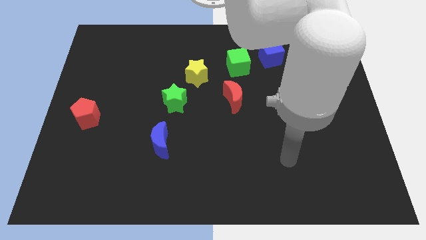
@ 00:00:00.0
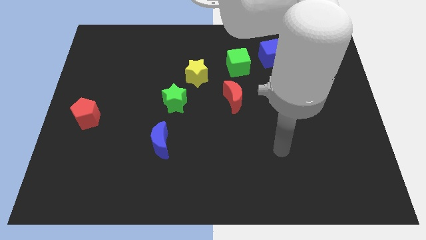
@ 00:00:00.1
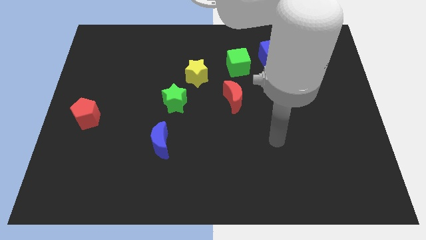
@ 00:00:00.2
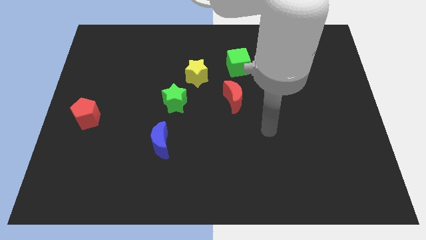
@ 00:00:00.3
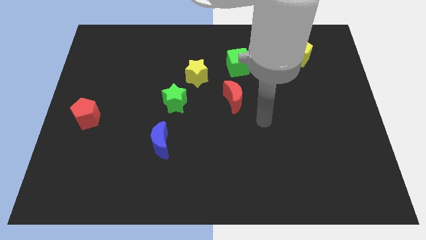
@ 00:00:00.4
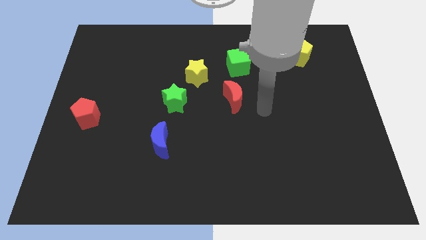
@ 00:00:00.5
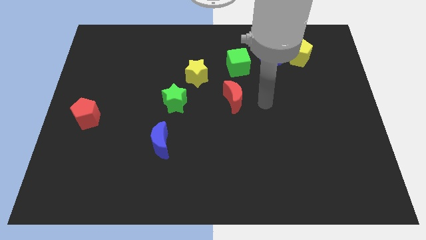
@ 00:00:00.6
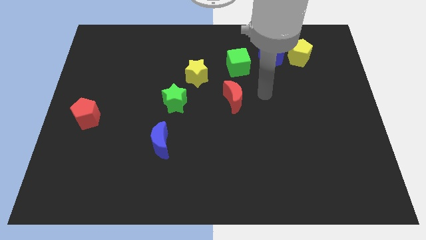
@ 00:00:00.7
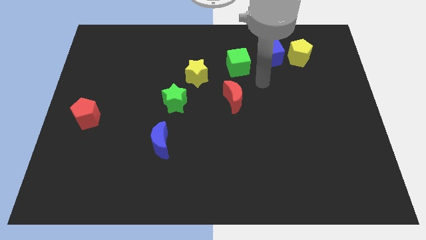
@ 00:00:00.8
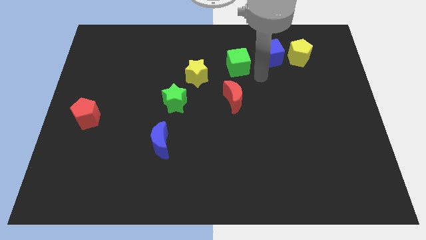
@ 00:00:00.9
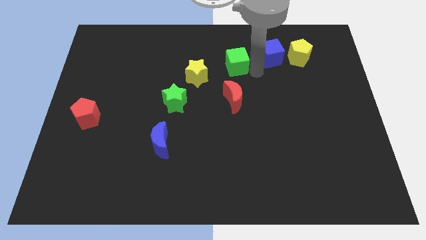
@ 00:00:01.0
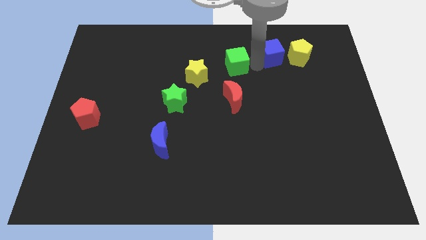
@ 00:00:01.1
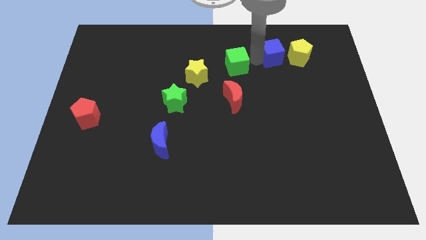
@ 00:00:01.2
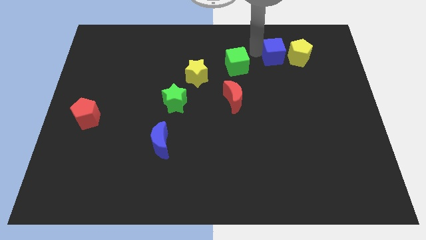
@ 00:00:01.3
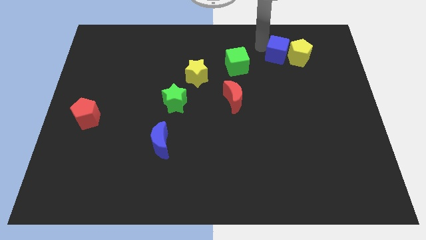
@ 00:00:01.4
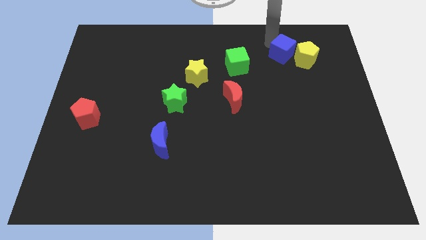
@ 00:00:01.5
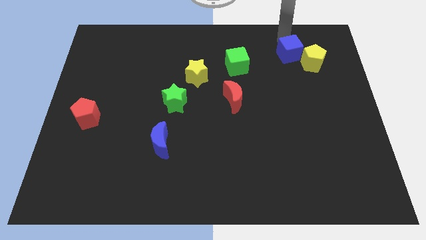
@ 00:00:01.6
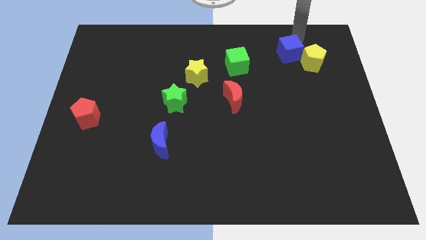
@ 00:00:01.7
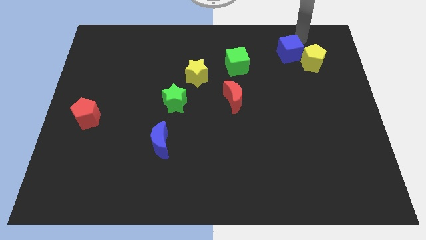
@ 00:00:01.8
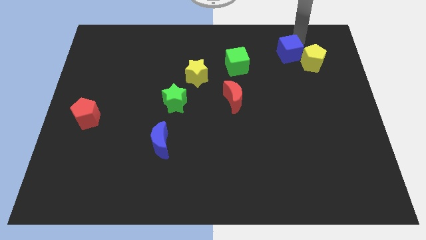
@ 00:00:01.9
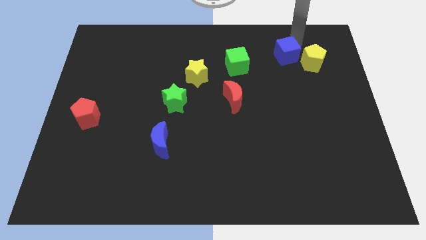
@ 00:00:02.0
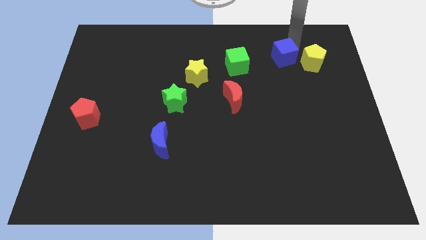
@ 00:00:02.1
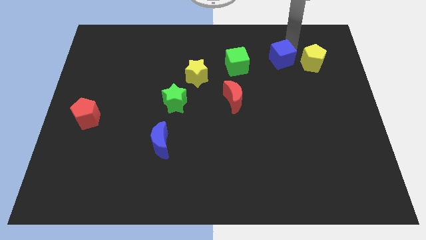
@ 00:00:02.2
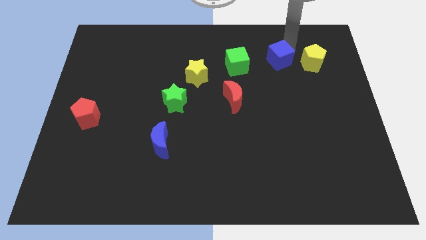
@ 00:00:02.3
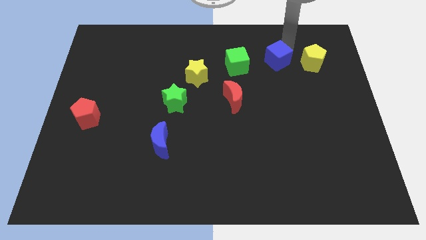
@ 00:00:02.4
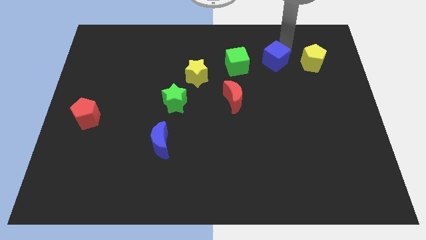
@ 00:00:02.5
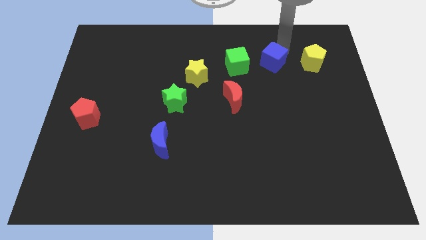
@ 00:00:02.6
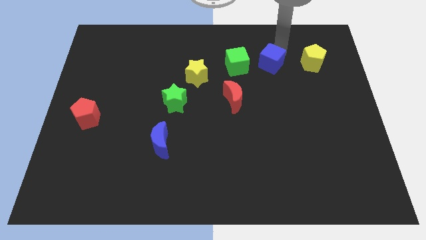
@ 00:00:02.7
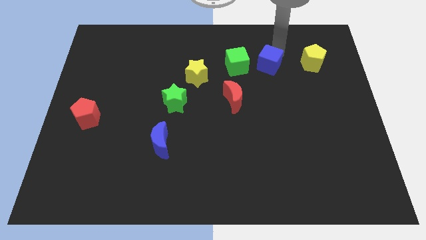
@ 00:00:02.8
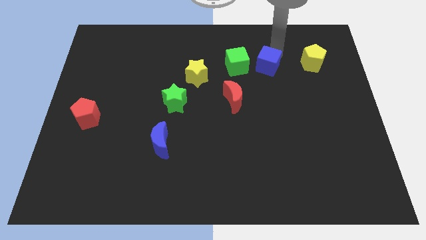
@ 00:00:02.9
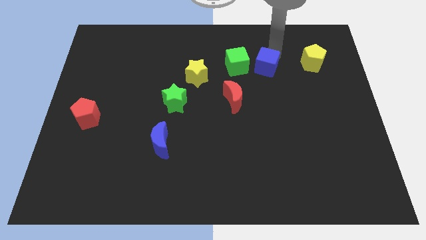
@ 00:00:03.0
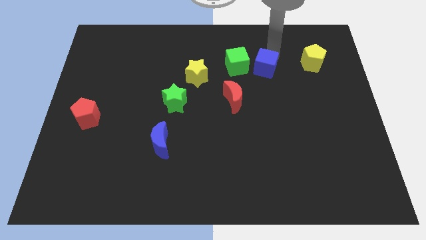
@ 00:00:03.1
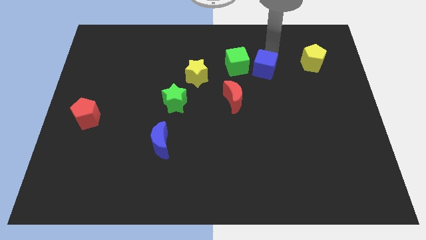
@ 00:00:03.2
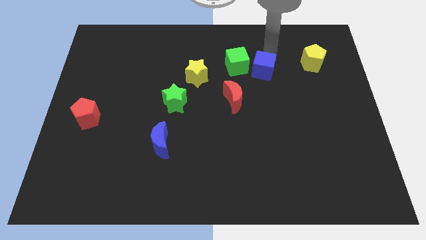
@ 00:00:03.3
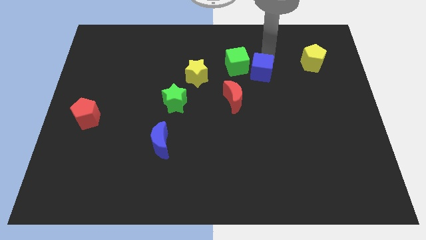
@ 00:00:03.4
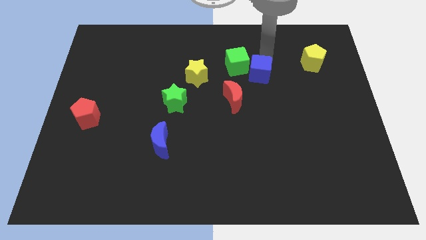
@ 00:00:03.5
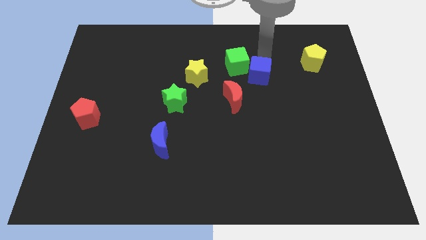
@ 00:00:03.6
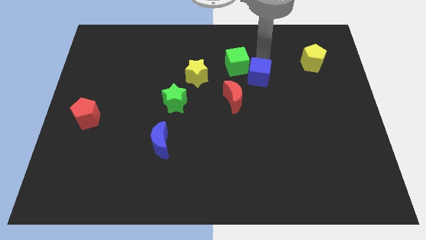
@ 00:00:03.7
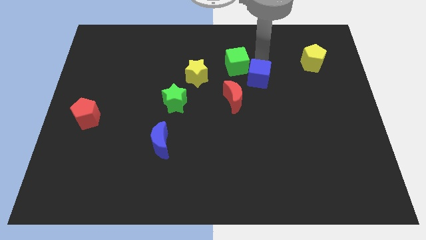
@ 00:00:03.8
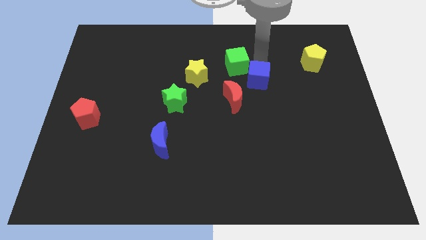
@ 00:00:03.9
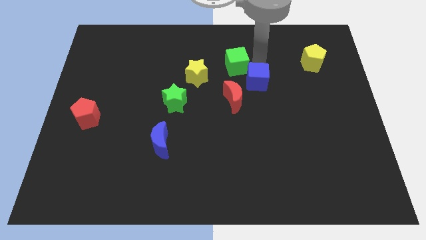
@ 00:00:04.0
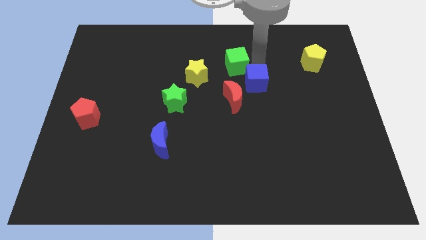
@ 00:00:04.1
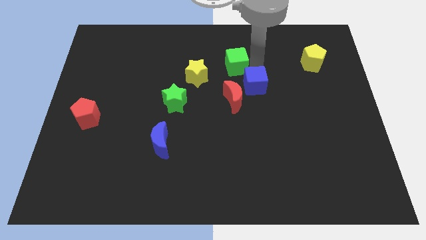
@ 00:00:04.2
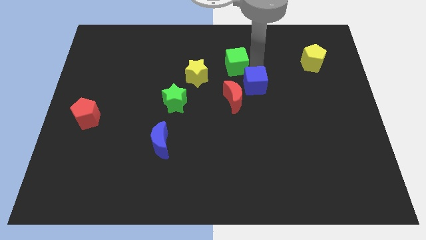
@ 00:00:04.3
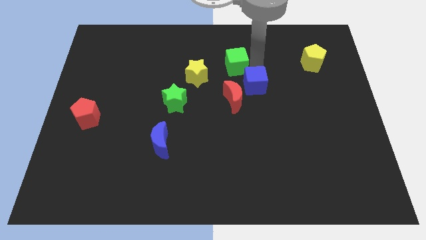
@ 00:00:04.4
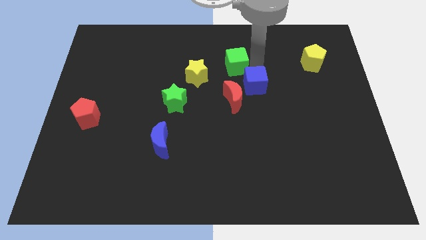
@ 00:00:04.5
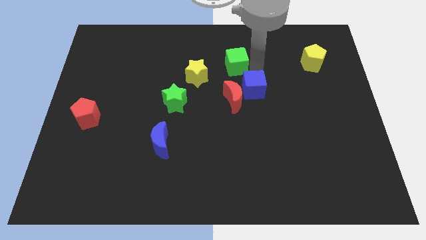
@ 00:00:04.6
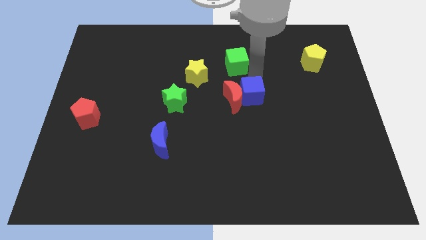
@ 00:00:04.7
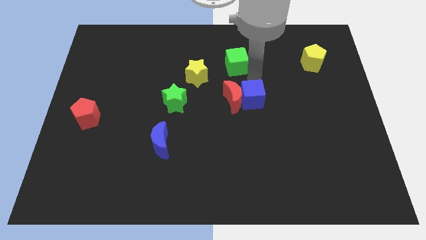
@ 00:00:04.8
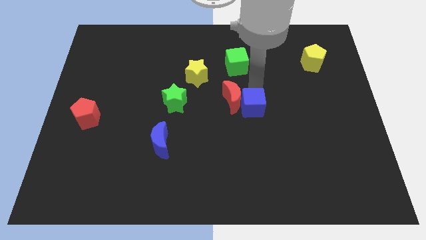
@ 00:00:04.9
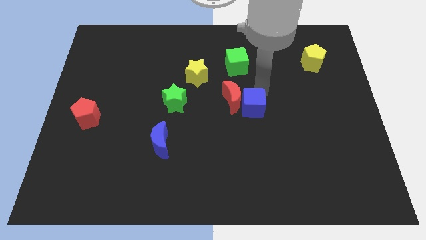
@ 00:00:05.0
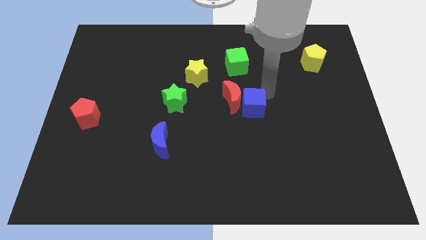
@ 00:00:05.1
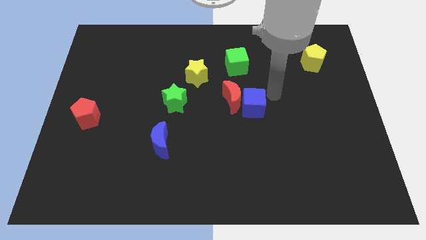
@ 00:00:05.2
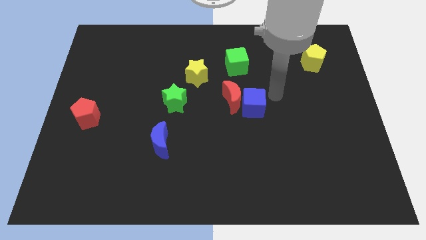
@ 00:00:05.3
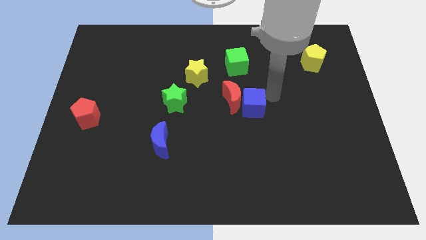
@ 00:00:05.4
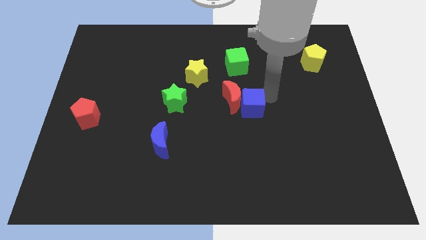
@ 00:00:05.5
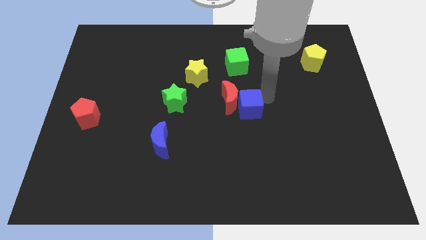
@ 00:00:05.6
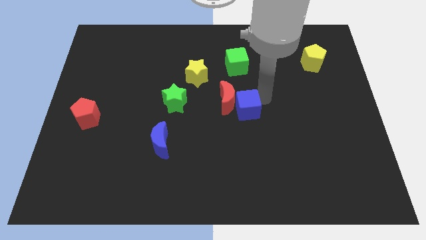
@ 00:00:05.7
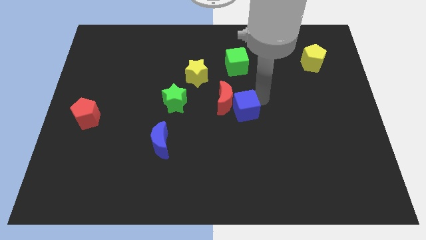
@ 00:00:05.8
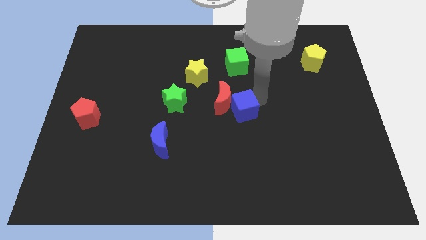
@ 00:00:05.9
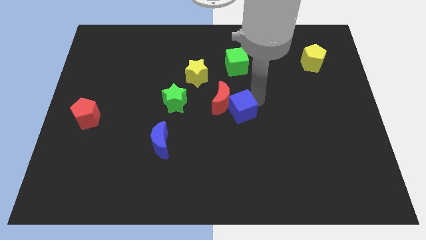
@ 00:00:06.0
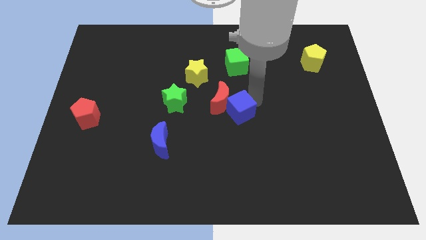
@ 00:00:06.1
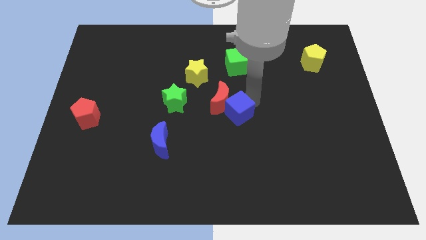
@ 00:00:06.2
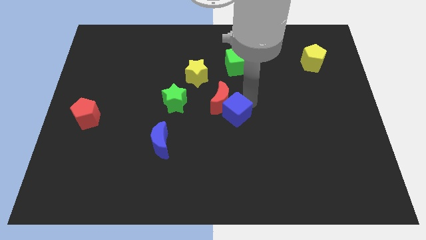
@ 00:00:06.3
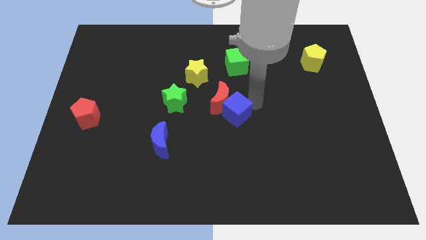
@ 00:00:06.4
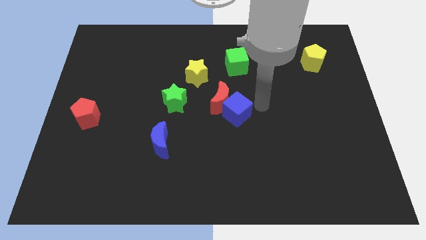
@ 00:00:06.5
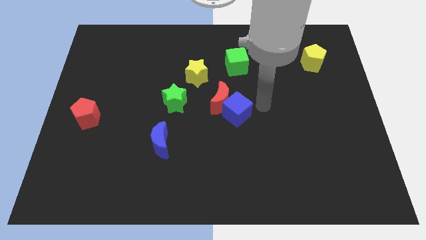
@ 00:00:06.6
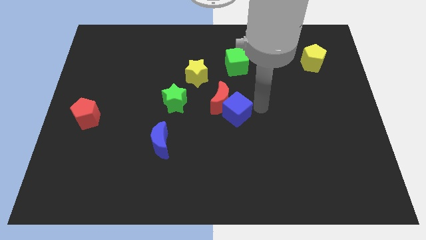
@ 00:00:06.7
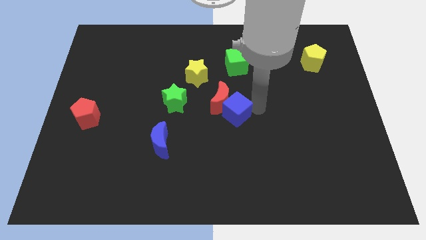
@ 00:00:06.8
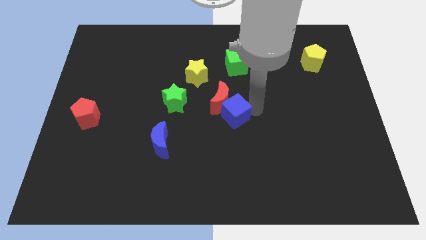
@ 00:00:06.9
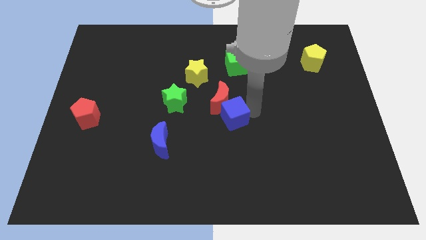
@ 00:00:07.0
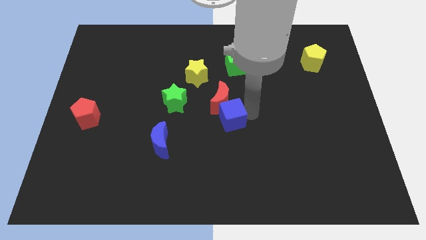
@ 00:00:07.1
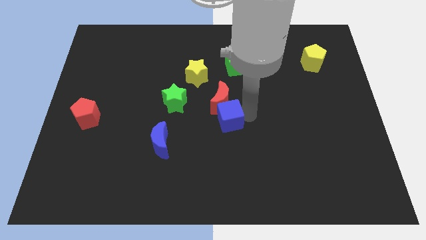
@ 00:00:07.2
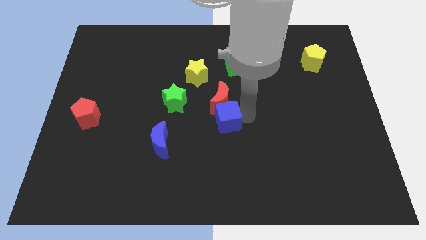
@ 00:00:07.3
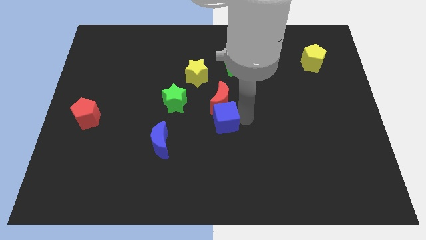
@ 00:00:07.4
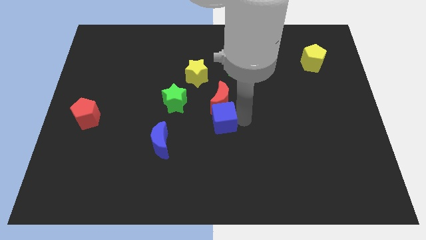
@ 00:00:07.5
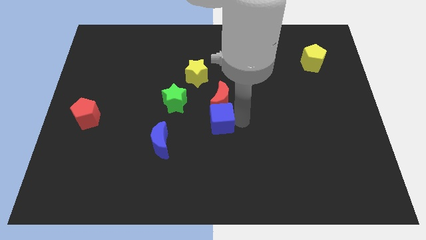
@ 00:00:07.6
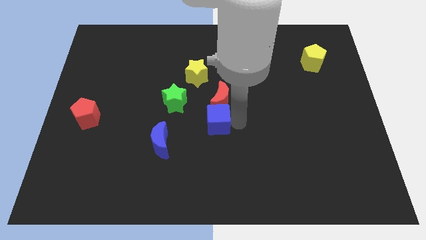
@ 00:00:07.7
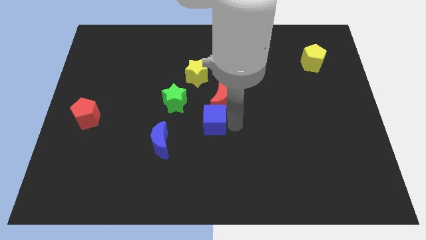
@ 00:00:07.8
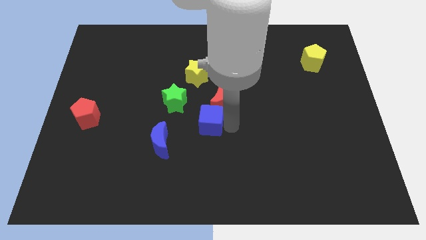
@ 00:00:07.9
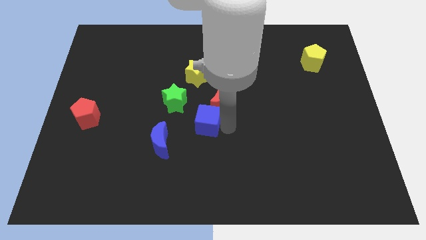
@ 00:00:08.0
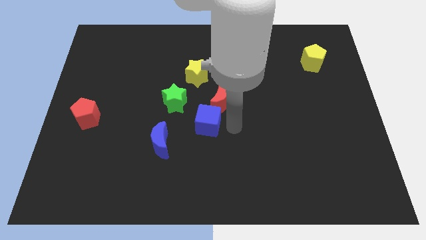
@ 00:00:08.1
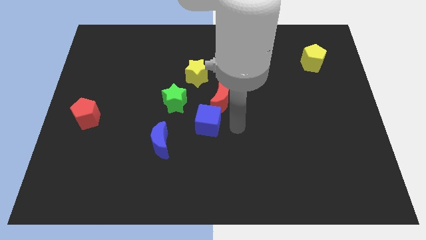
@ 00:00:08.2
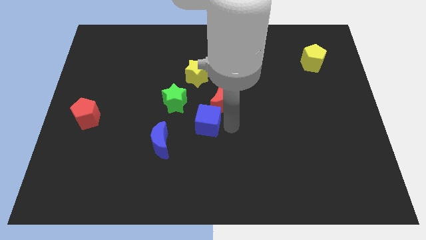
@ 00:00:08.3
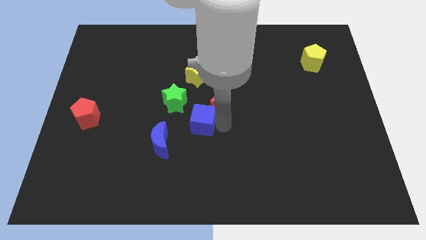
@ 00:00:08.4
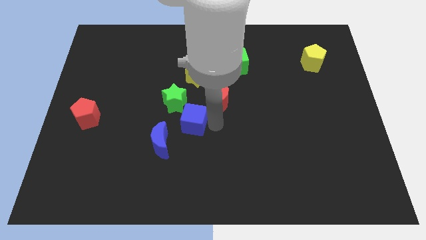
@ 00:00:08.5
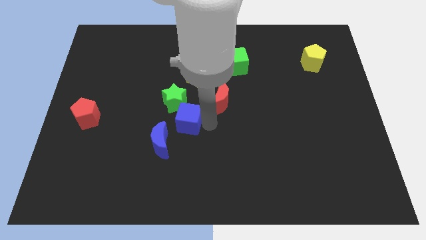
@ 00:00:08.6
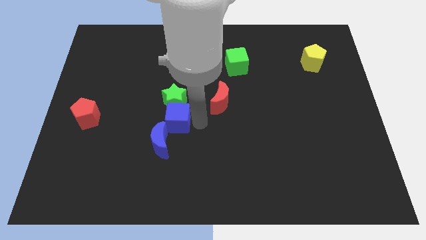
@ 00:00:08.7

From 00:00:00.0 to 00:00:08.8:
slide the blue cube to the bottom left of the green star
